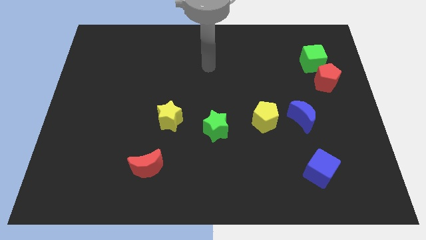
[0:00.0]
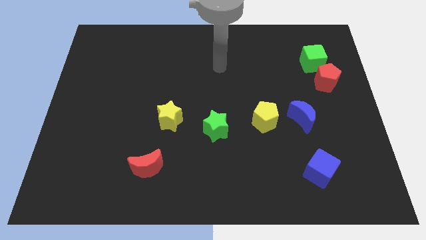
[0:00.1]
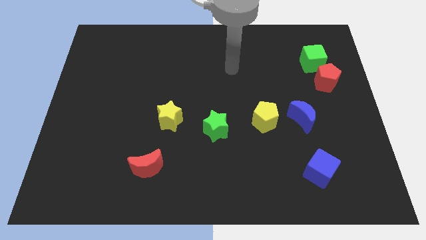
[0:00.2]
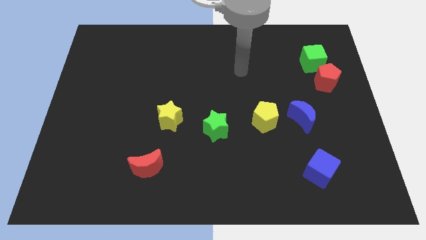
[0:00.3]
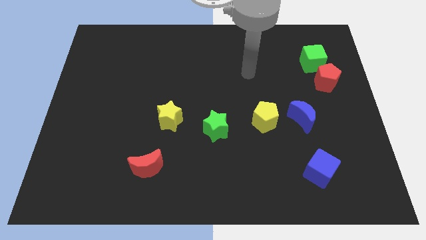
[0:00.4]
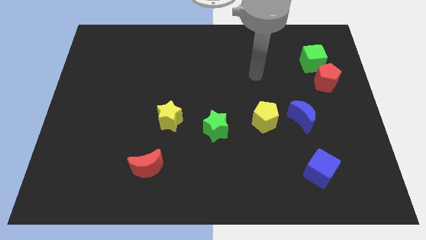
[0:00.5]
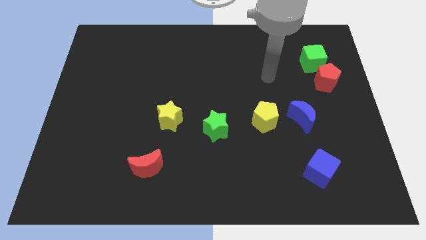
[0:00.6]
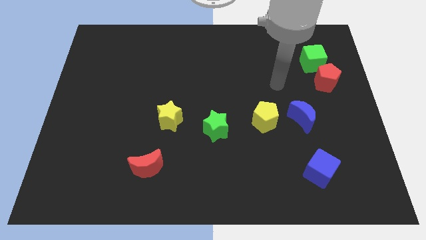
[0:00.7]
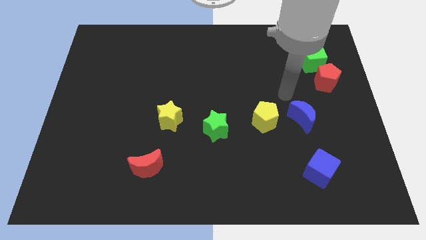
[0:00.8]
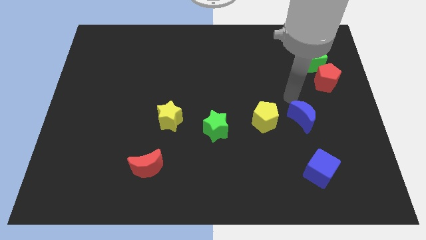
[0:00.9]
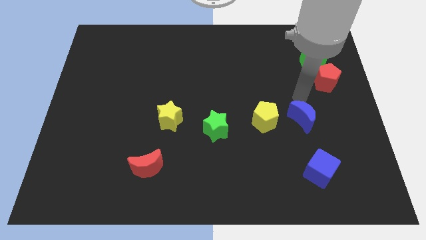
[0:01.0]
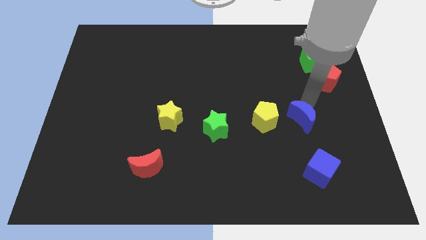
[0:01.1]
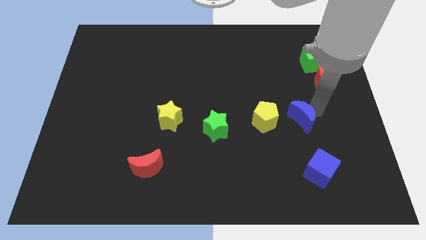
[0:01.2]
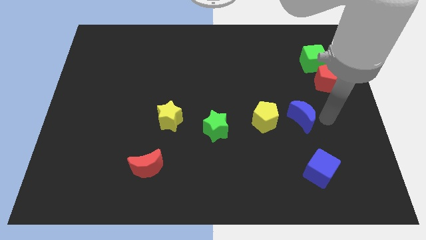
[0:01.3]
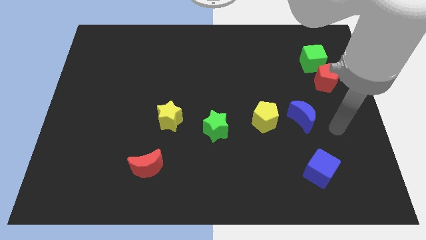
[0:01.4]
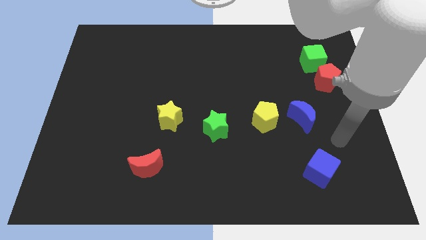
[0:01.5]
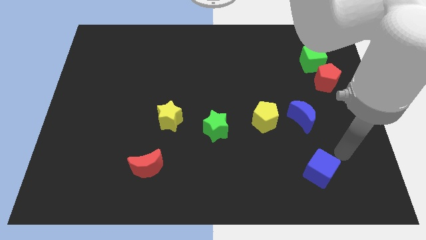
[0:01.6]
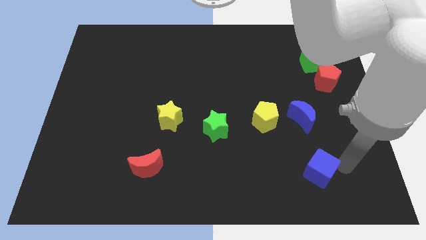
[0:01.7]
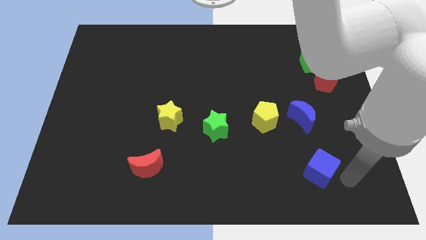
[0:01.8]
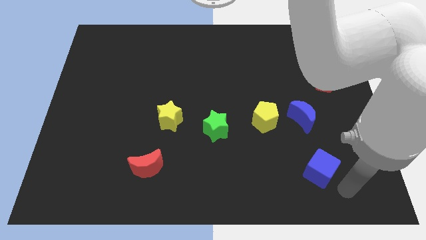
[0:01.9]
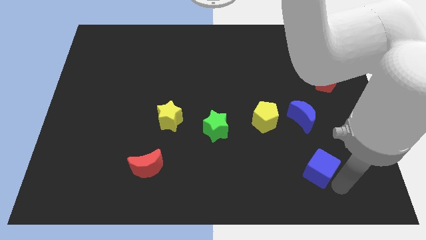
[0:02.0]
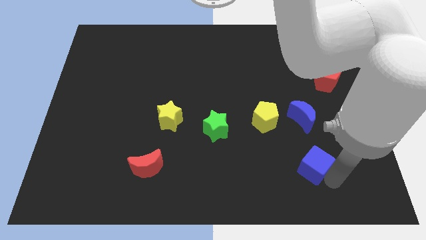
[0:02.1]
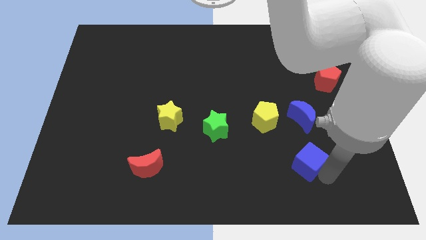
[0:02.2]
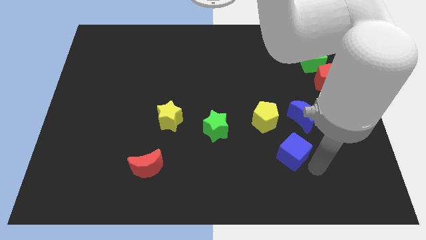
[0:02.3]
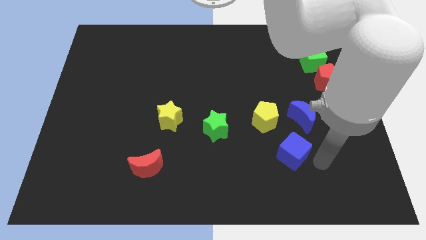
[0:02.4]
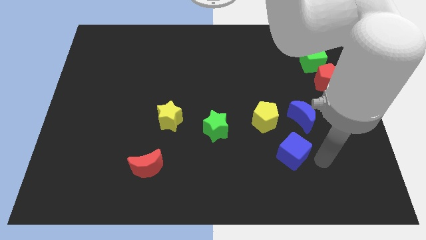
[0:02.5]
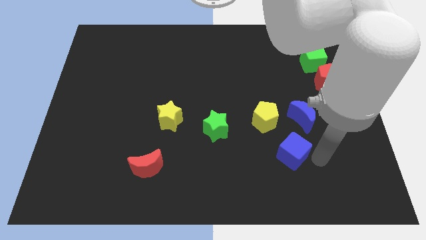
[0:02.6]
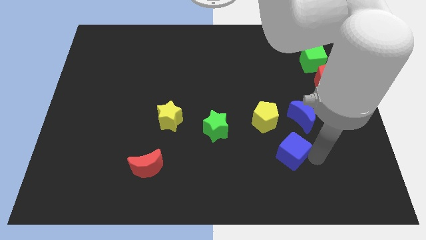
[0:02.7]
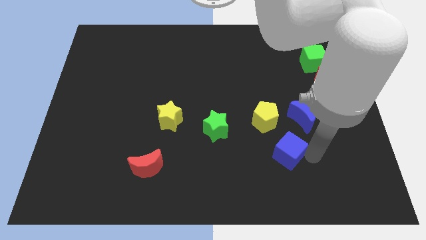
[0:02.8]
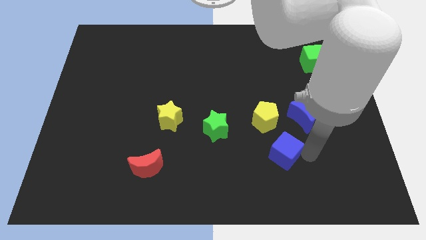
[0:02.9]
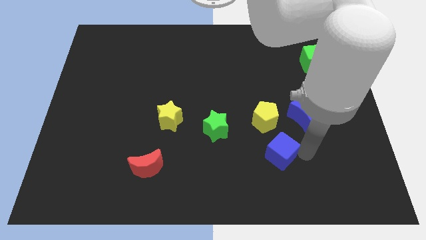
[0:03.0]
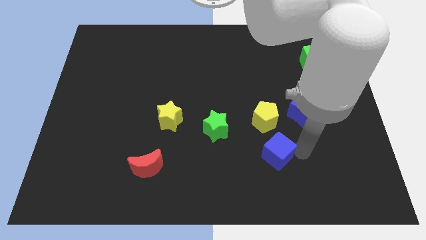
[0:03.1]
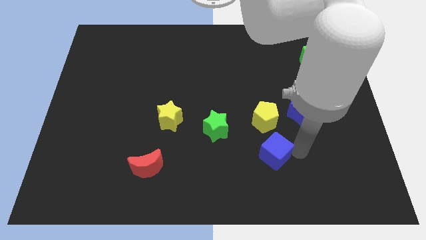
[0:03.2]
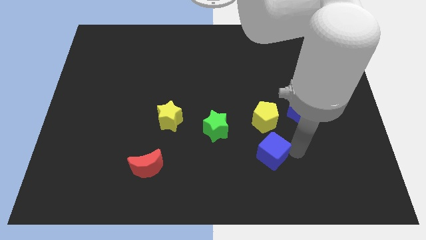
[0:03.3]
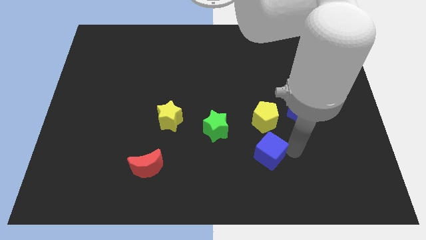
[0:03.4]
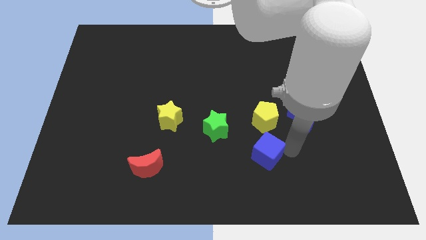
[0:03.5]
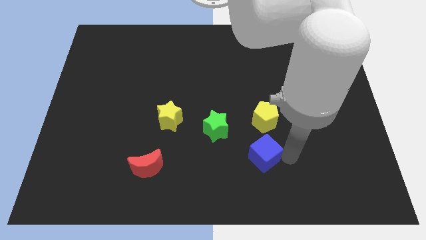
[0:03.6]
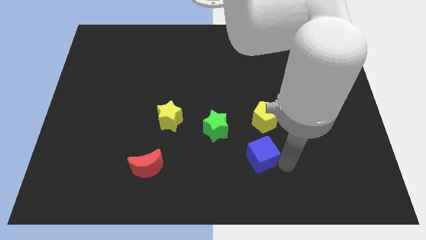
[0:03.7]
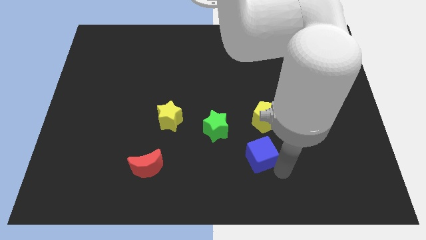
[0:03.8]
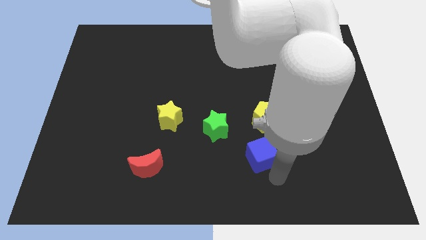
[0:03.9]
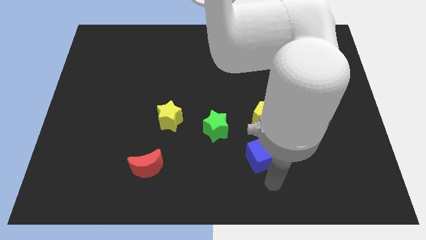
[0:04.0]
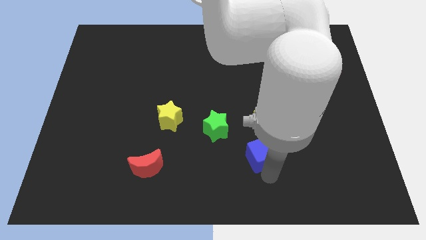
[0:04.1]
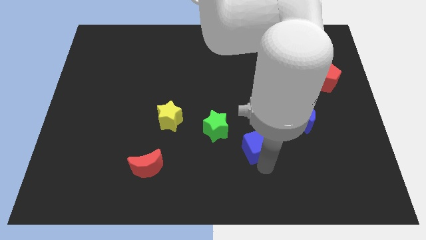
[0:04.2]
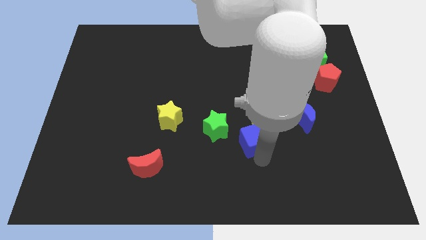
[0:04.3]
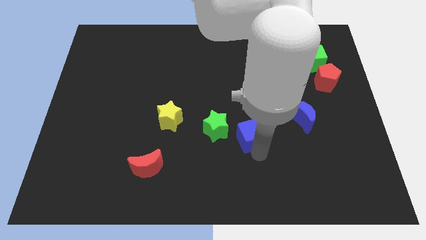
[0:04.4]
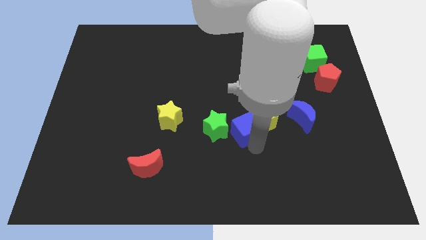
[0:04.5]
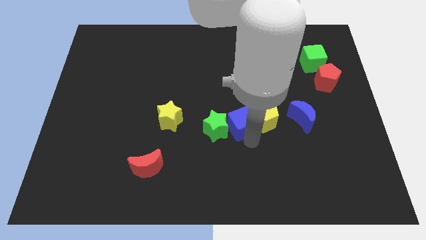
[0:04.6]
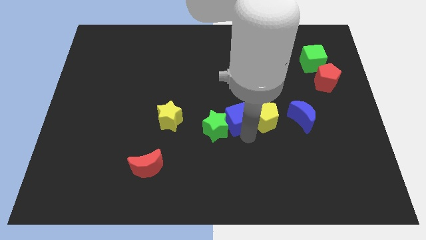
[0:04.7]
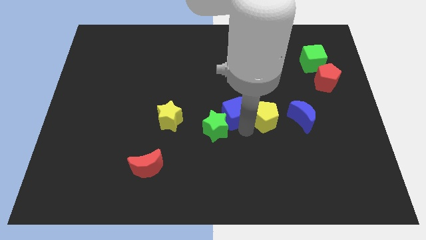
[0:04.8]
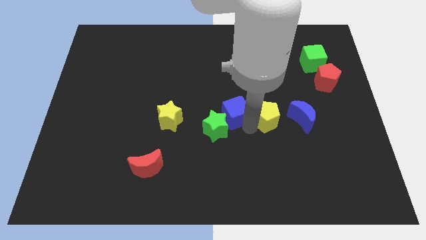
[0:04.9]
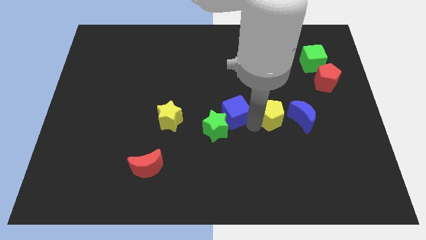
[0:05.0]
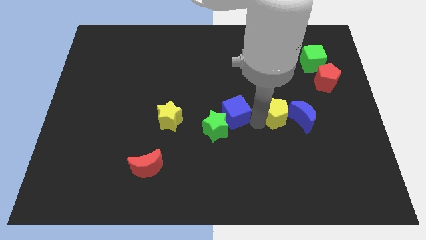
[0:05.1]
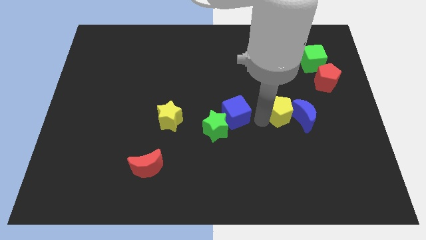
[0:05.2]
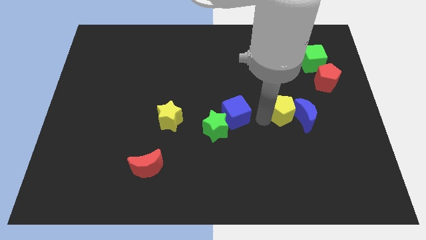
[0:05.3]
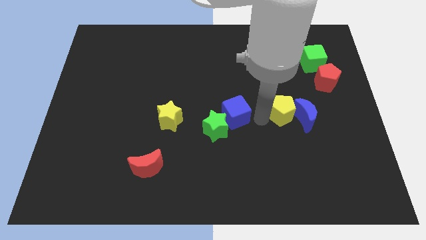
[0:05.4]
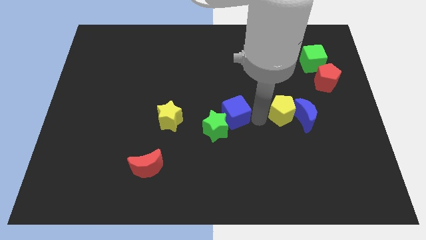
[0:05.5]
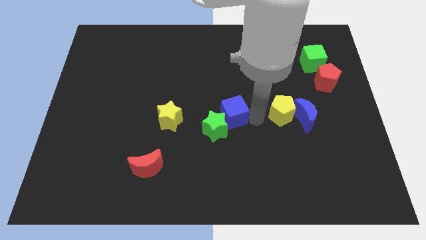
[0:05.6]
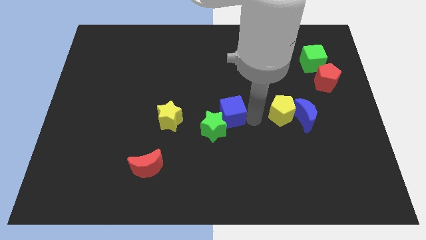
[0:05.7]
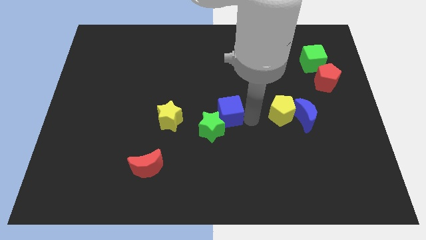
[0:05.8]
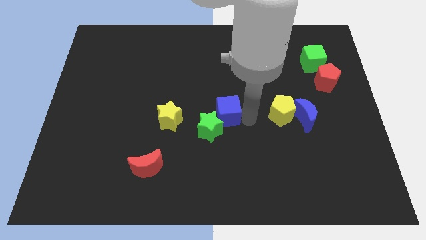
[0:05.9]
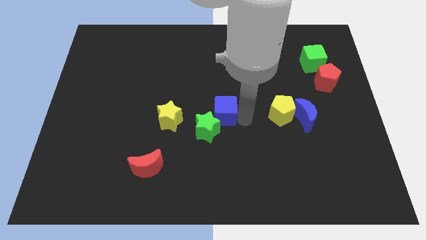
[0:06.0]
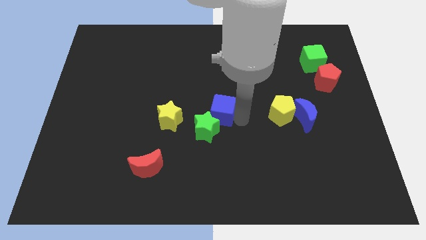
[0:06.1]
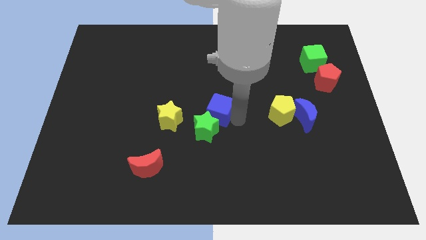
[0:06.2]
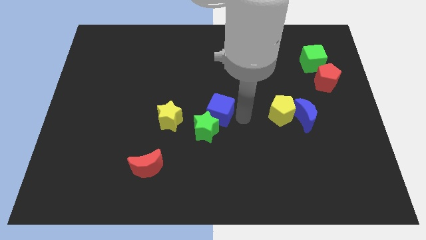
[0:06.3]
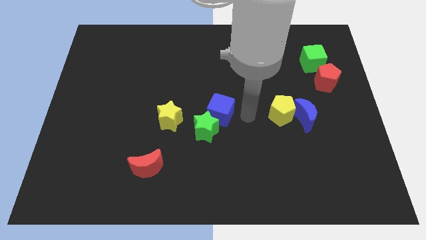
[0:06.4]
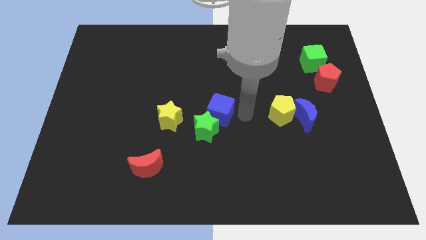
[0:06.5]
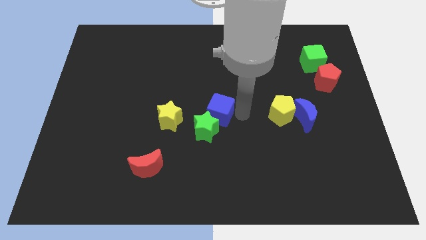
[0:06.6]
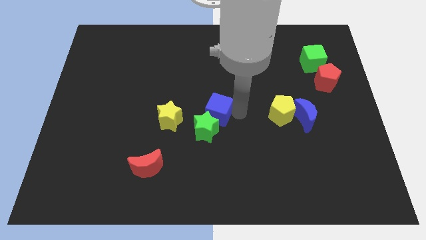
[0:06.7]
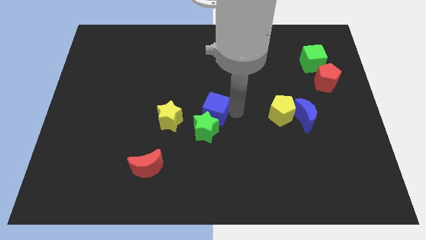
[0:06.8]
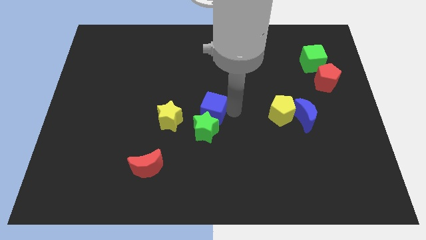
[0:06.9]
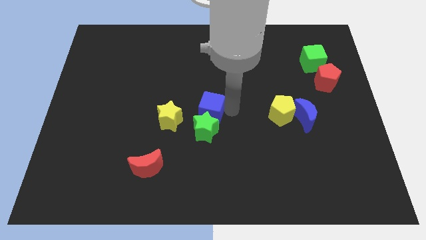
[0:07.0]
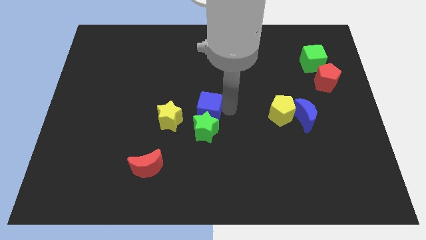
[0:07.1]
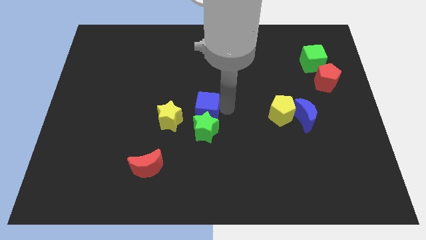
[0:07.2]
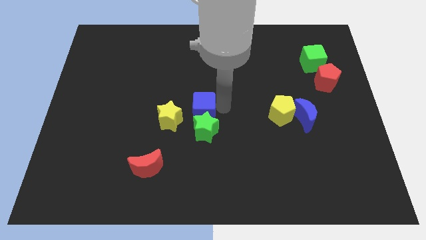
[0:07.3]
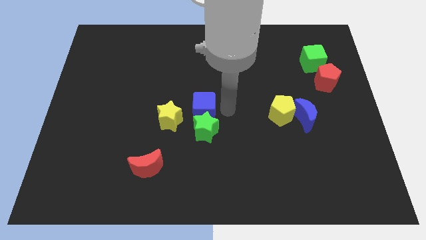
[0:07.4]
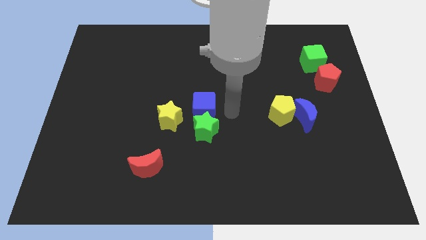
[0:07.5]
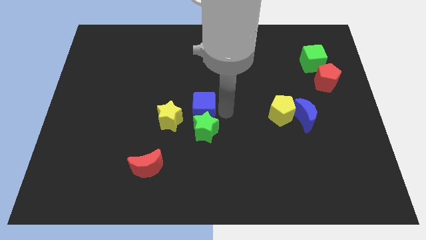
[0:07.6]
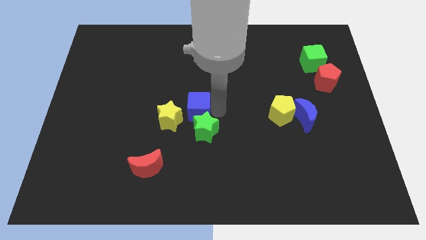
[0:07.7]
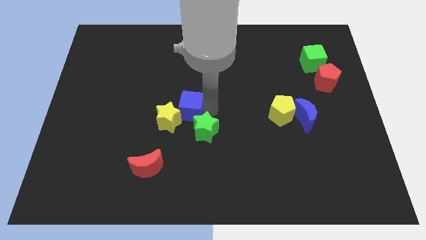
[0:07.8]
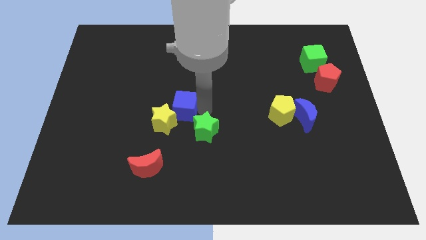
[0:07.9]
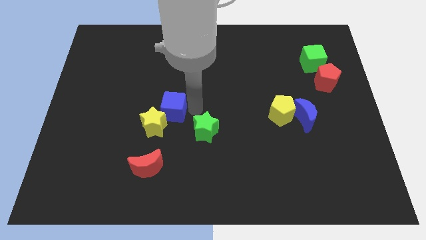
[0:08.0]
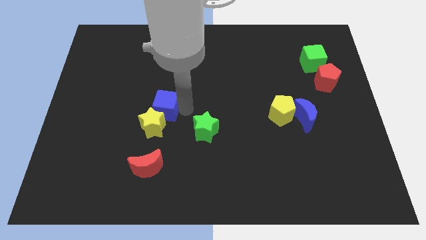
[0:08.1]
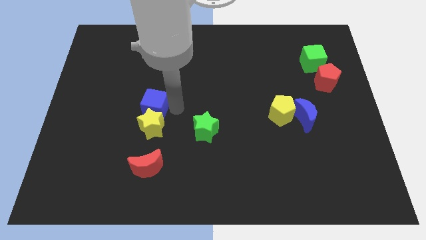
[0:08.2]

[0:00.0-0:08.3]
put the blue cube to the top left side of the yellow star

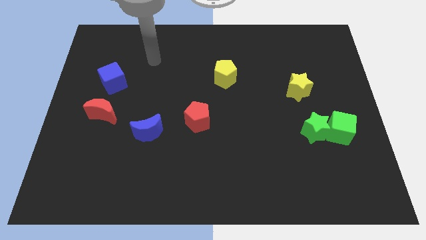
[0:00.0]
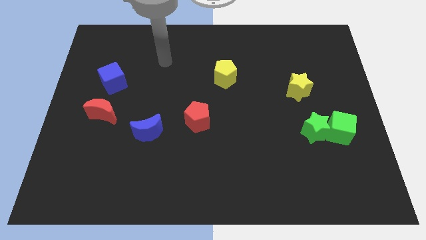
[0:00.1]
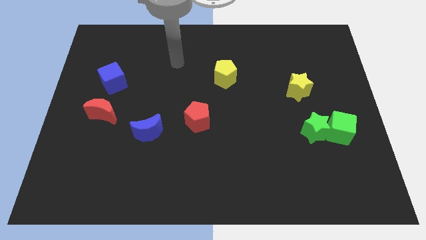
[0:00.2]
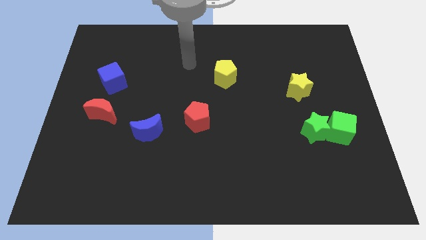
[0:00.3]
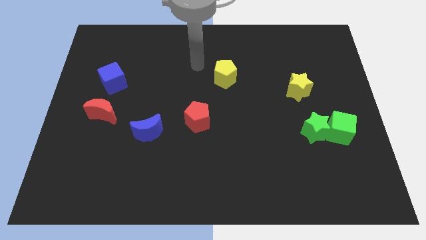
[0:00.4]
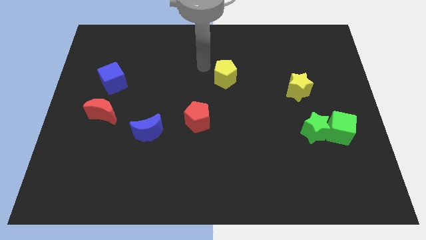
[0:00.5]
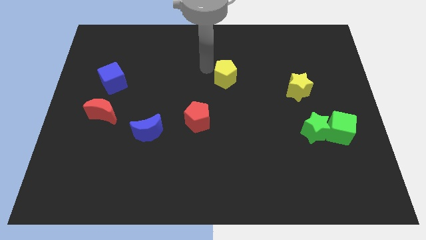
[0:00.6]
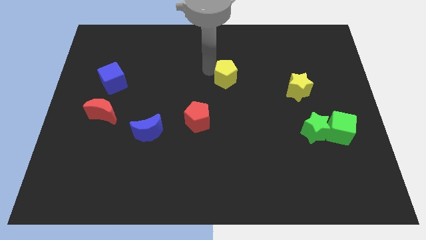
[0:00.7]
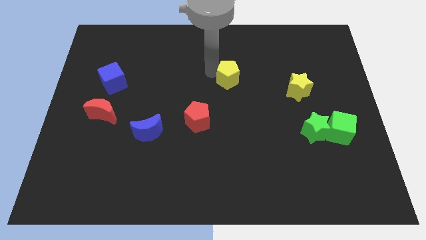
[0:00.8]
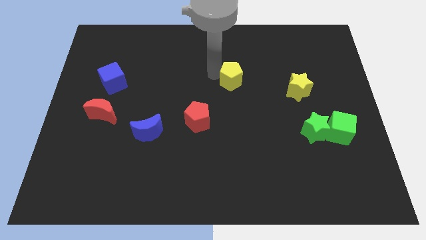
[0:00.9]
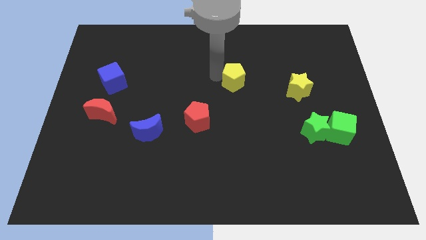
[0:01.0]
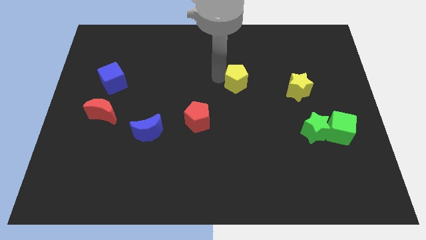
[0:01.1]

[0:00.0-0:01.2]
push the yellow pentagon just left of the yellow star
